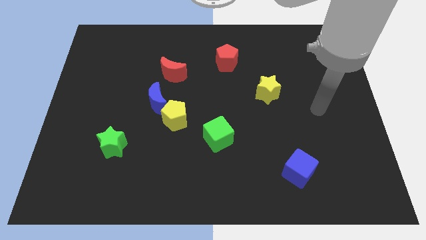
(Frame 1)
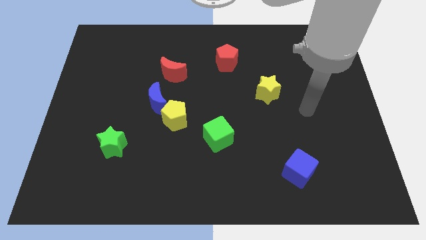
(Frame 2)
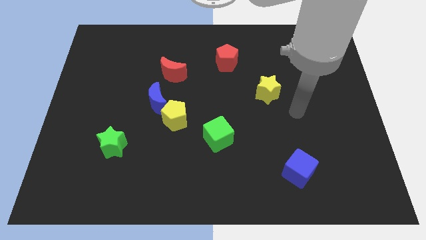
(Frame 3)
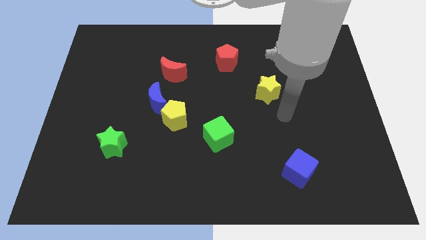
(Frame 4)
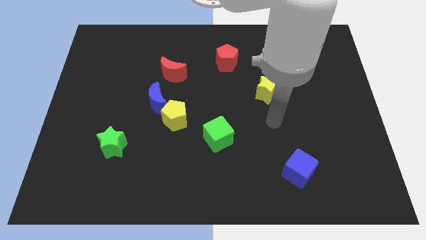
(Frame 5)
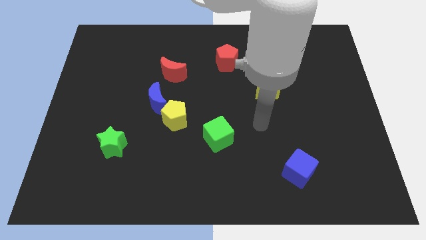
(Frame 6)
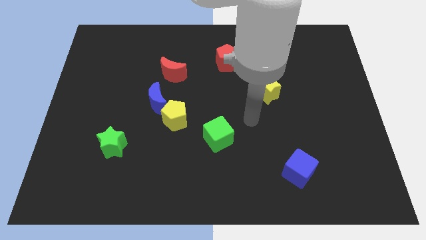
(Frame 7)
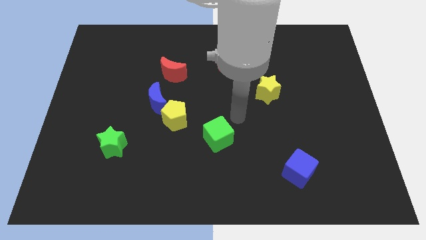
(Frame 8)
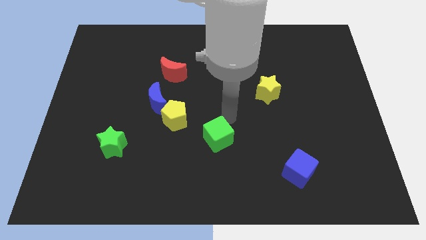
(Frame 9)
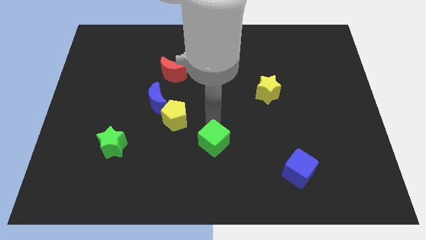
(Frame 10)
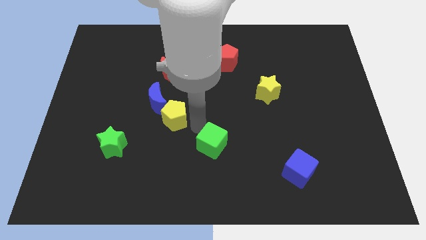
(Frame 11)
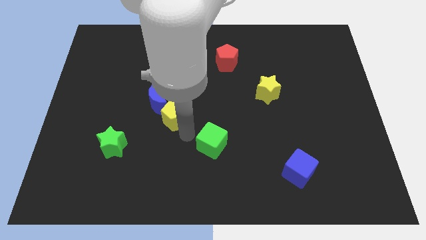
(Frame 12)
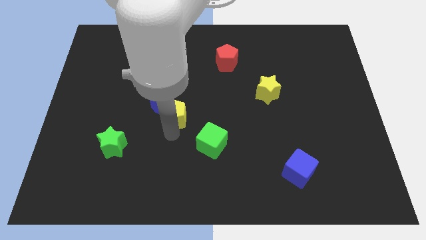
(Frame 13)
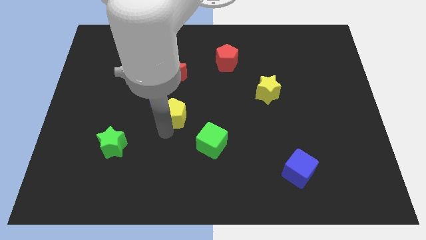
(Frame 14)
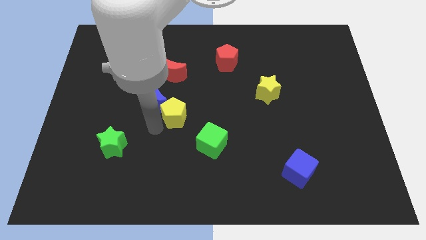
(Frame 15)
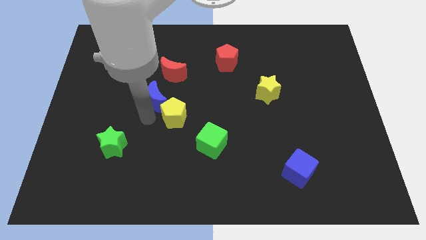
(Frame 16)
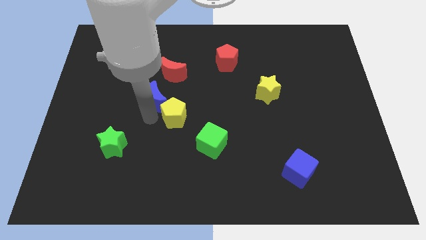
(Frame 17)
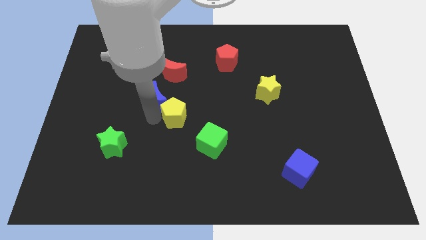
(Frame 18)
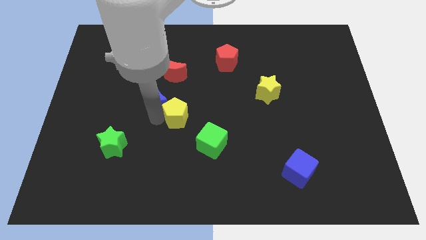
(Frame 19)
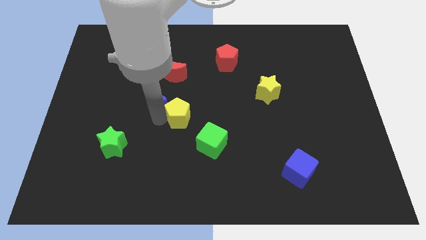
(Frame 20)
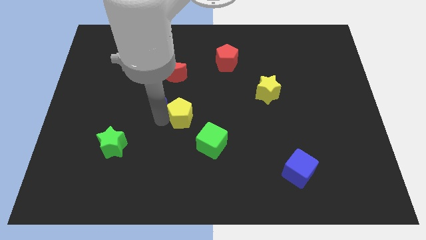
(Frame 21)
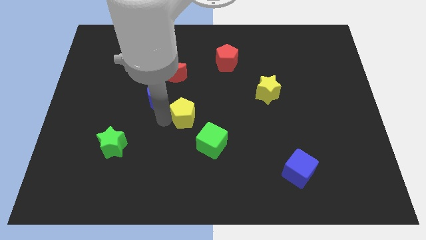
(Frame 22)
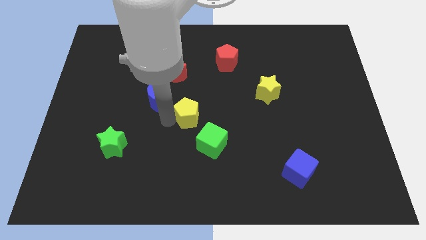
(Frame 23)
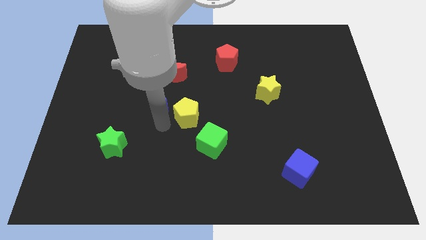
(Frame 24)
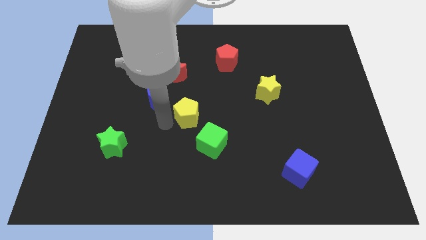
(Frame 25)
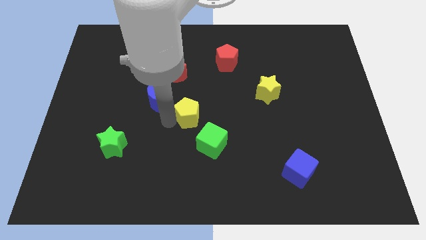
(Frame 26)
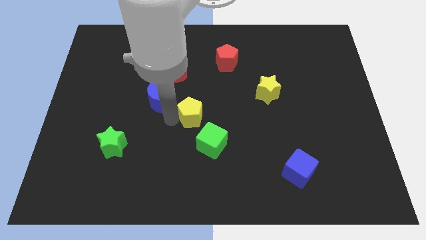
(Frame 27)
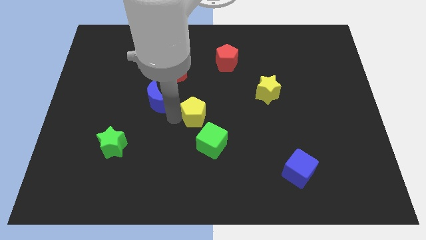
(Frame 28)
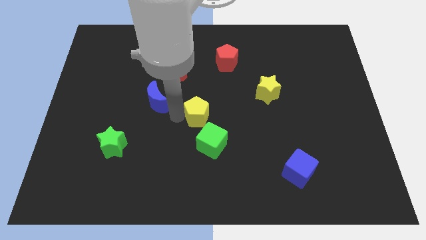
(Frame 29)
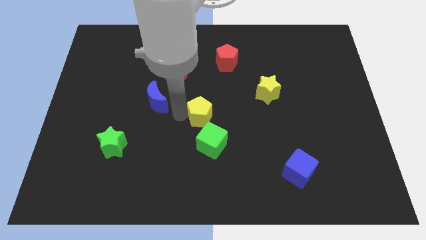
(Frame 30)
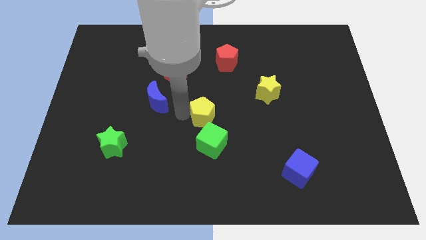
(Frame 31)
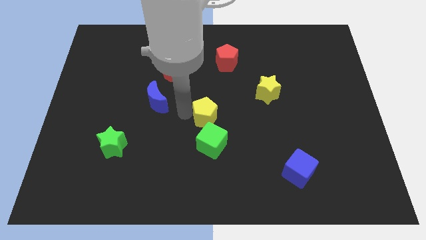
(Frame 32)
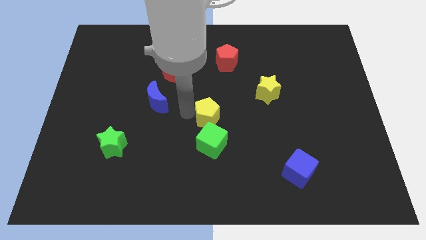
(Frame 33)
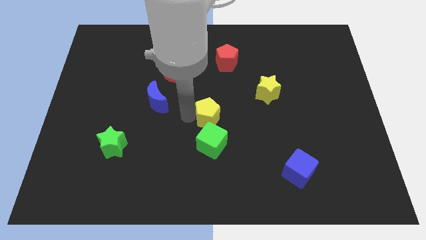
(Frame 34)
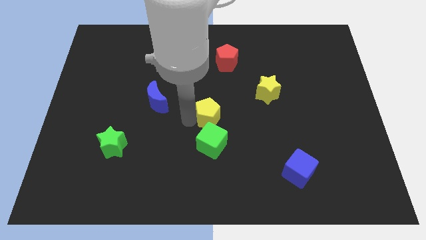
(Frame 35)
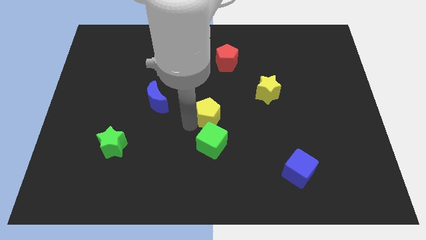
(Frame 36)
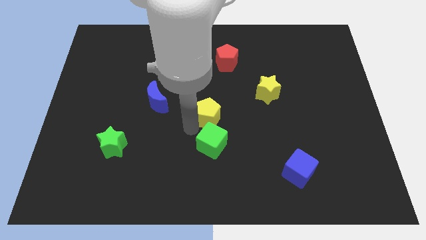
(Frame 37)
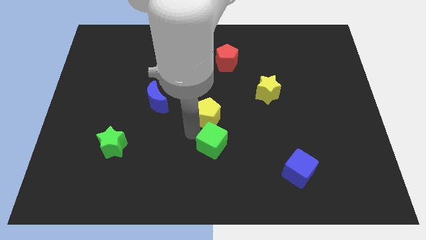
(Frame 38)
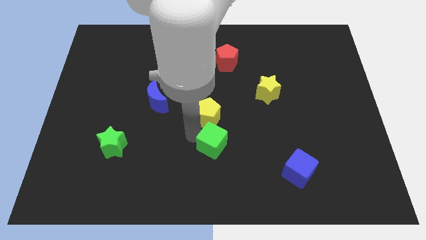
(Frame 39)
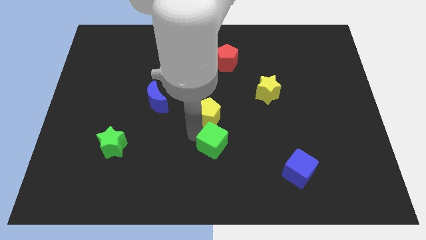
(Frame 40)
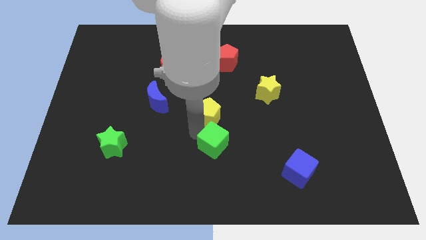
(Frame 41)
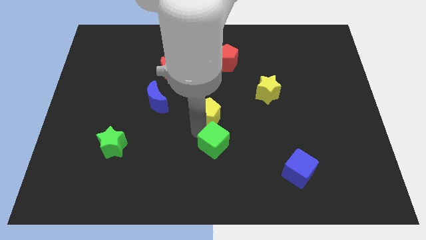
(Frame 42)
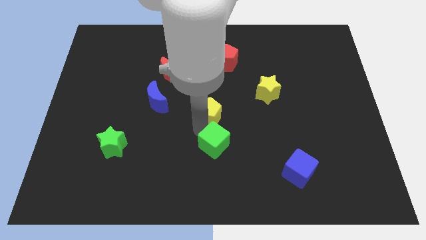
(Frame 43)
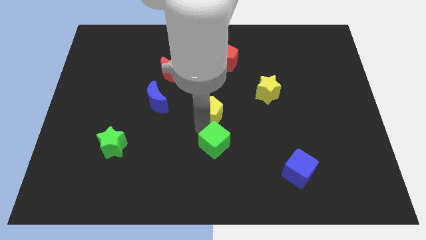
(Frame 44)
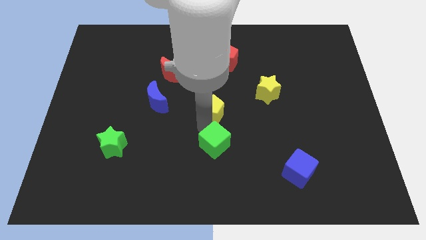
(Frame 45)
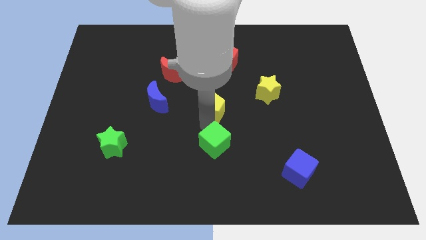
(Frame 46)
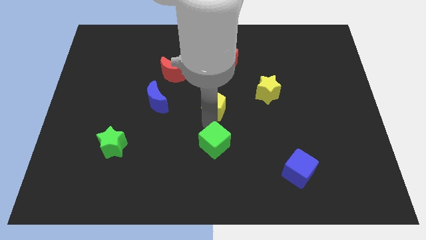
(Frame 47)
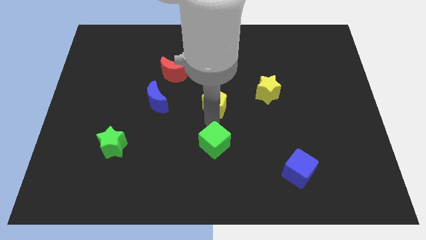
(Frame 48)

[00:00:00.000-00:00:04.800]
push the yellow pentagon below the red pentagon

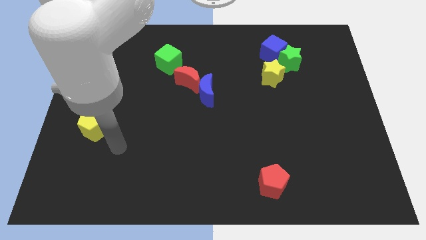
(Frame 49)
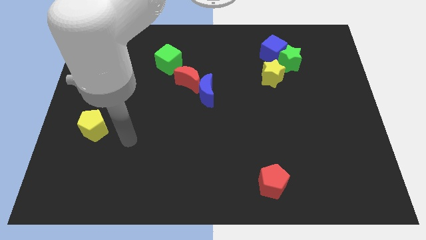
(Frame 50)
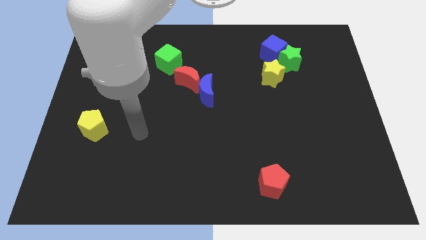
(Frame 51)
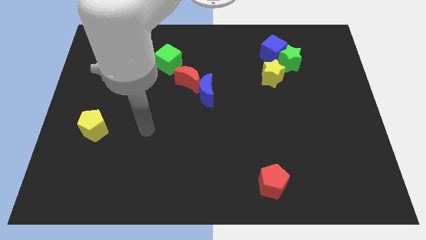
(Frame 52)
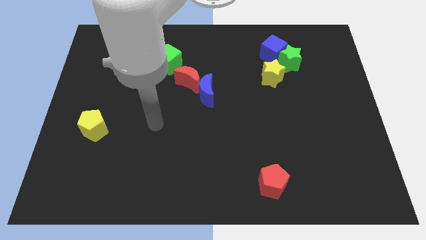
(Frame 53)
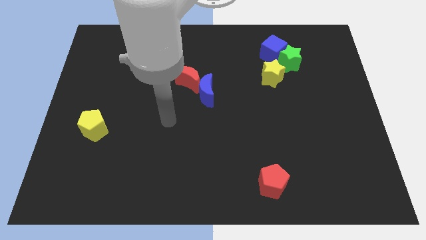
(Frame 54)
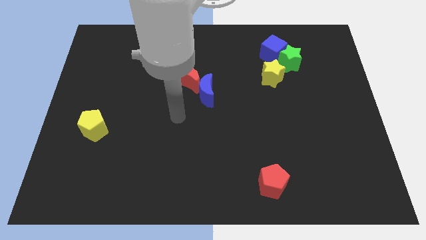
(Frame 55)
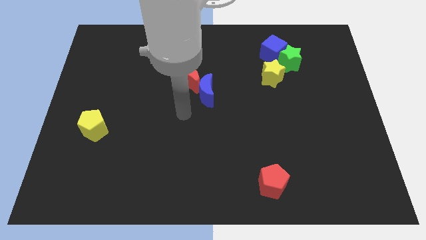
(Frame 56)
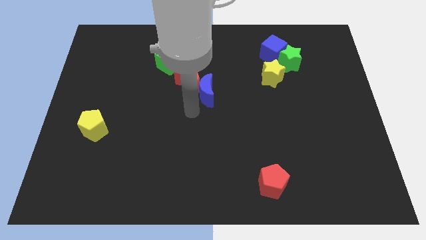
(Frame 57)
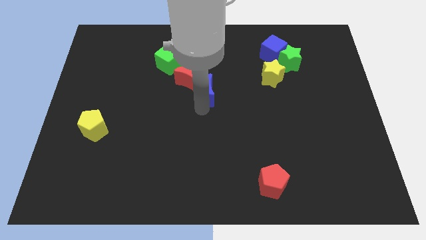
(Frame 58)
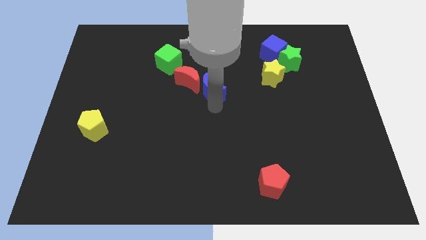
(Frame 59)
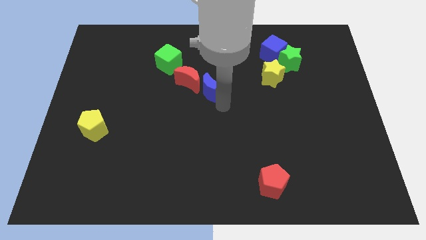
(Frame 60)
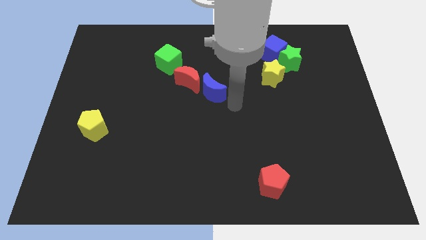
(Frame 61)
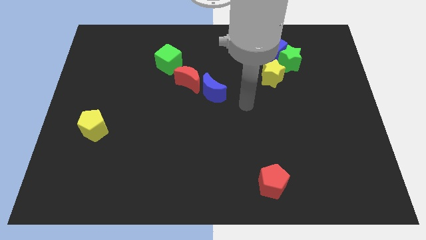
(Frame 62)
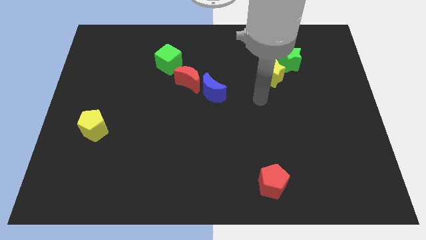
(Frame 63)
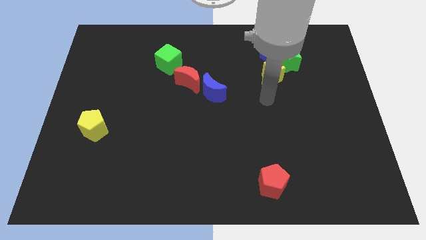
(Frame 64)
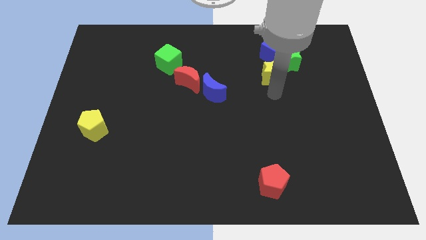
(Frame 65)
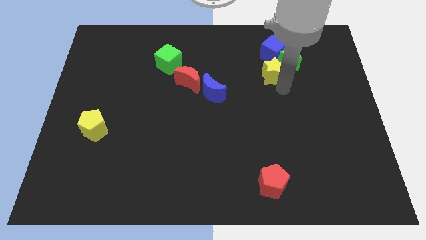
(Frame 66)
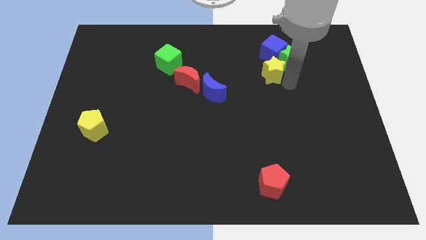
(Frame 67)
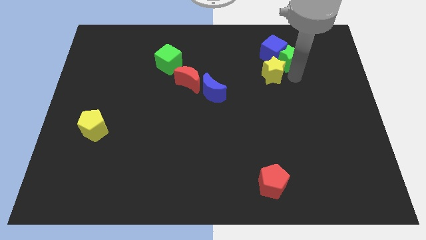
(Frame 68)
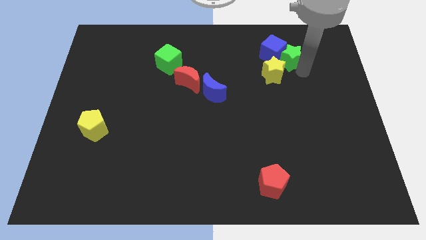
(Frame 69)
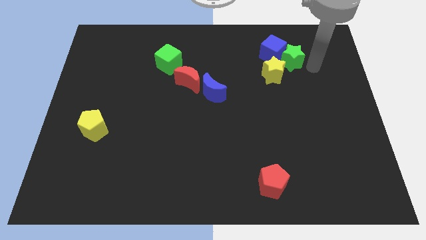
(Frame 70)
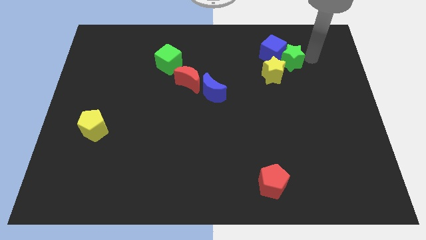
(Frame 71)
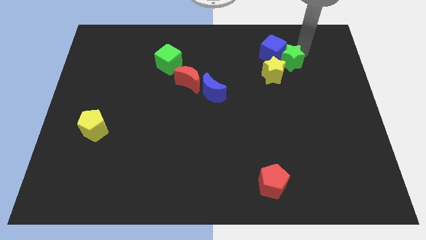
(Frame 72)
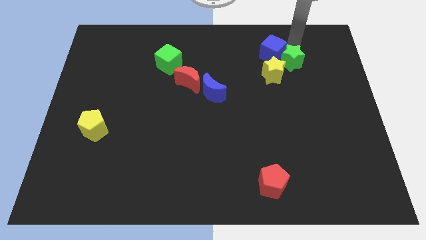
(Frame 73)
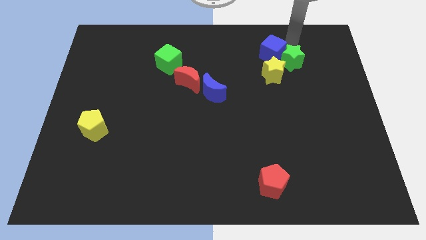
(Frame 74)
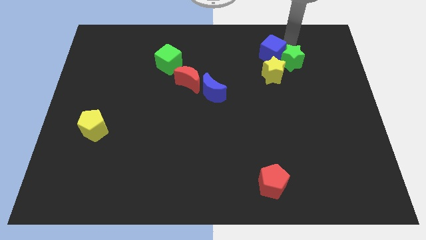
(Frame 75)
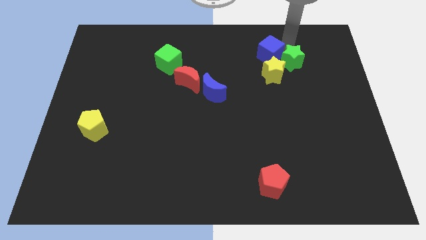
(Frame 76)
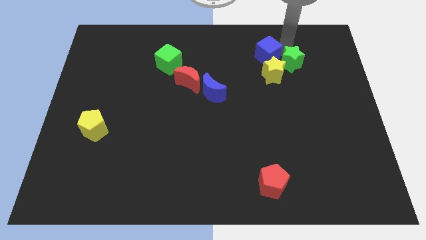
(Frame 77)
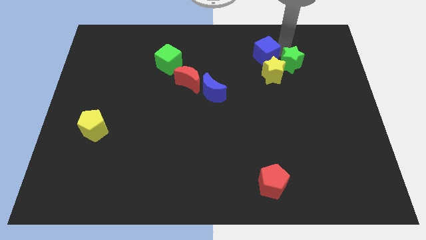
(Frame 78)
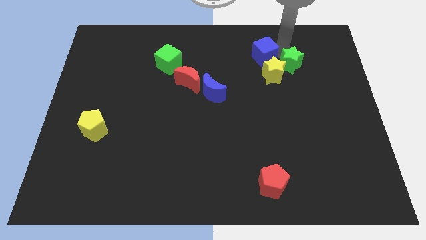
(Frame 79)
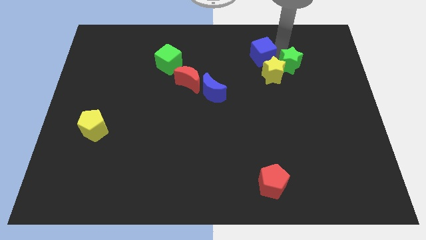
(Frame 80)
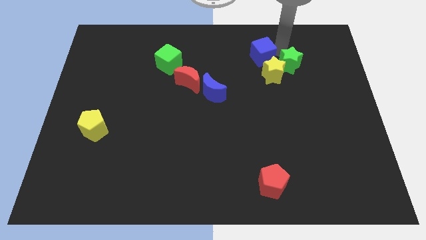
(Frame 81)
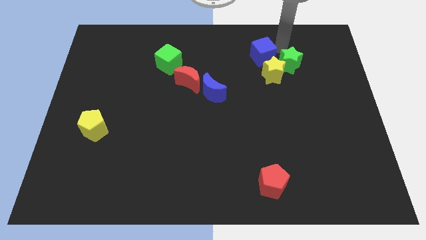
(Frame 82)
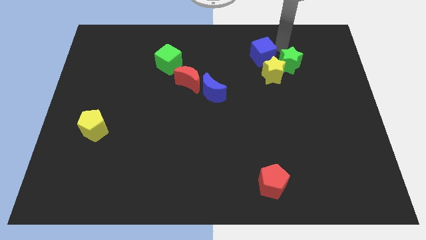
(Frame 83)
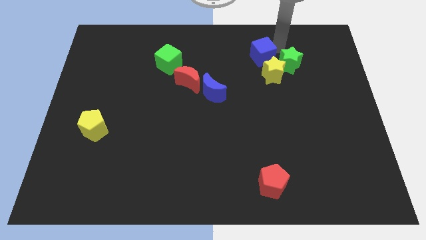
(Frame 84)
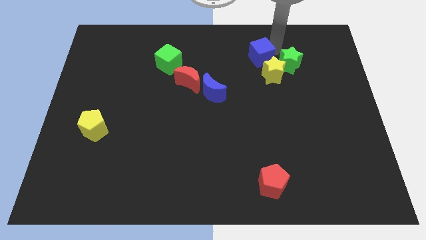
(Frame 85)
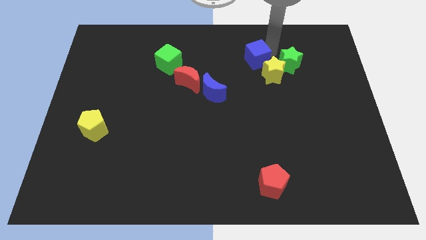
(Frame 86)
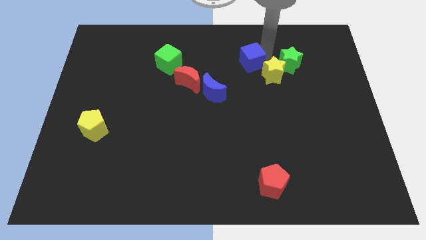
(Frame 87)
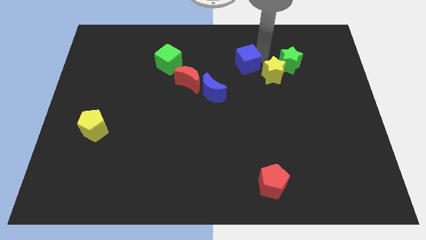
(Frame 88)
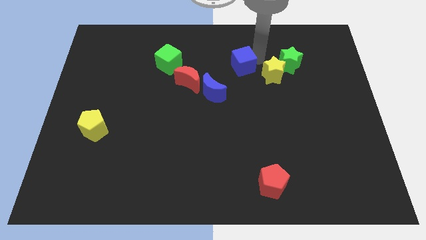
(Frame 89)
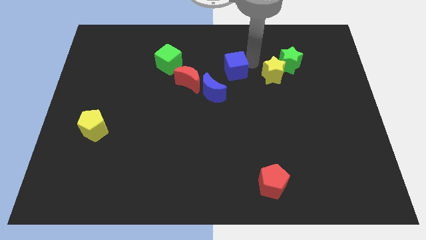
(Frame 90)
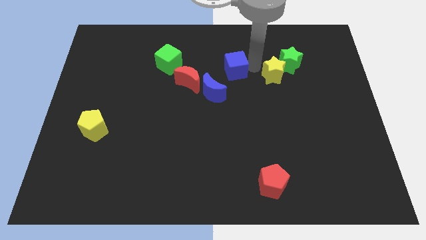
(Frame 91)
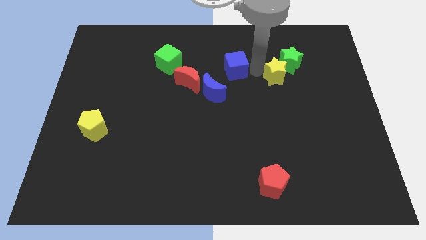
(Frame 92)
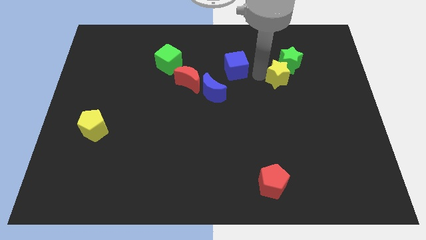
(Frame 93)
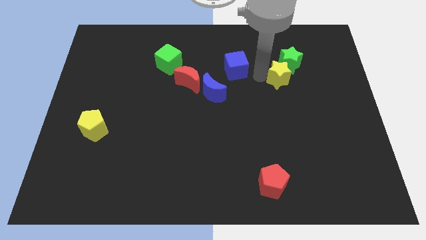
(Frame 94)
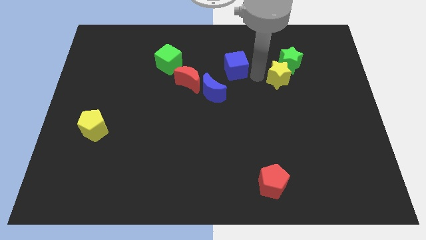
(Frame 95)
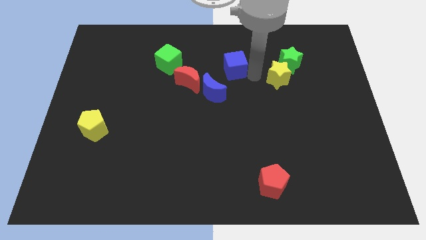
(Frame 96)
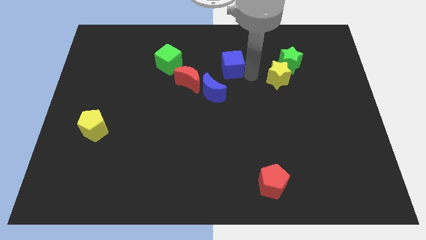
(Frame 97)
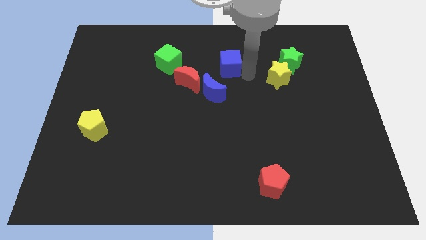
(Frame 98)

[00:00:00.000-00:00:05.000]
push the blue cube above the blue moon
